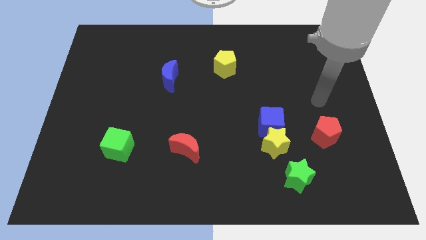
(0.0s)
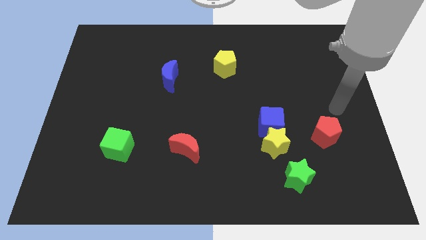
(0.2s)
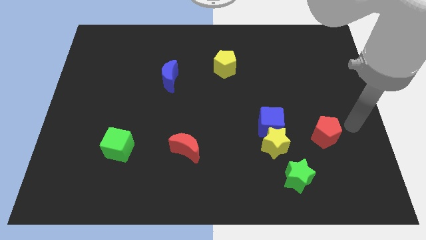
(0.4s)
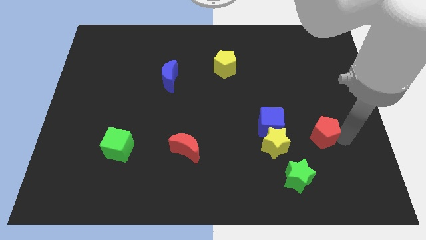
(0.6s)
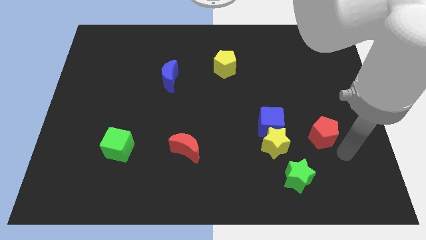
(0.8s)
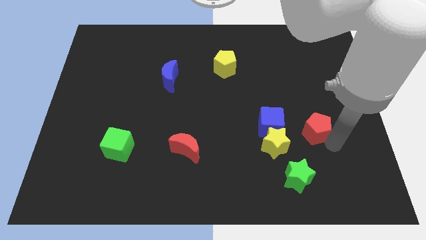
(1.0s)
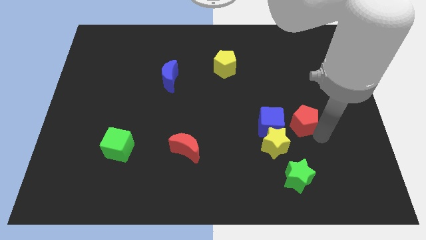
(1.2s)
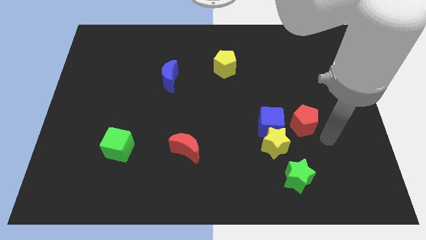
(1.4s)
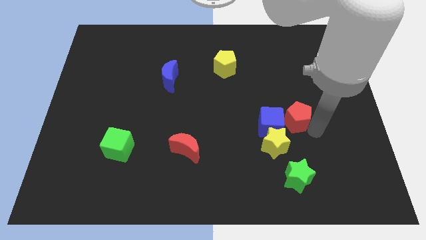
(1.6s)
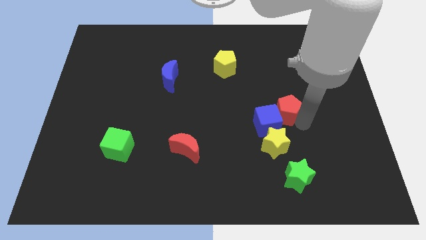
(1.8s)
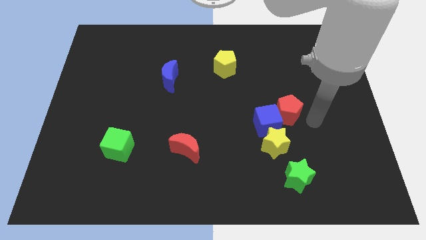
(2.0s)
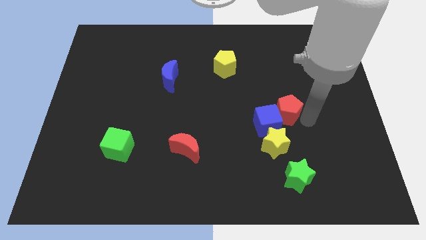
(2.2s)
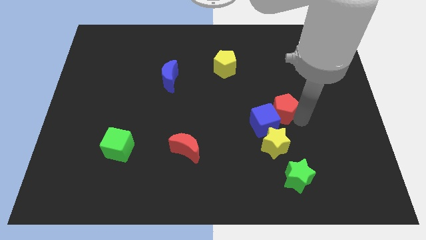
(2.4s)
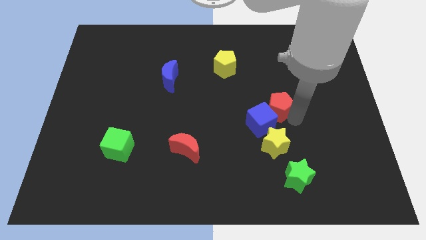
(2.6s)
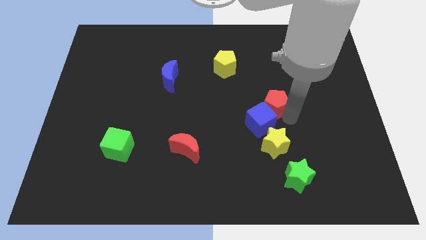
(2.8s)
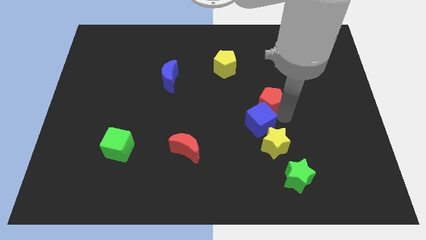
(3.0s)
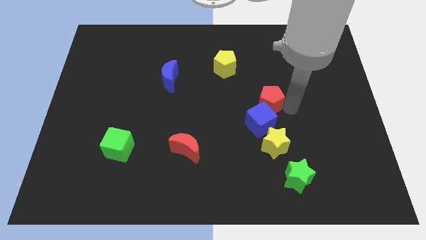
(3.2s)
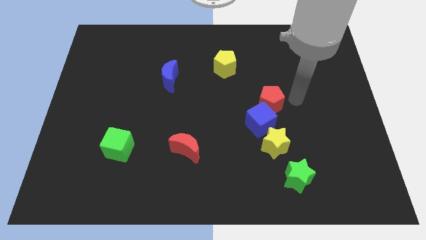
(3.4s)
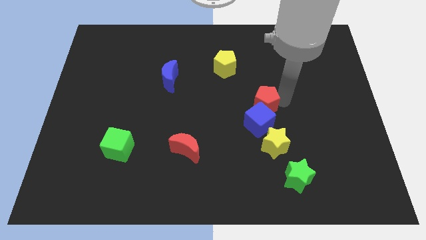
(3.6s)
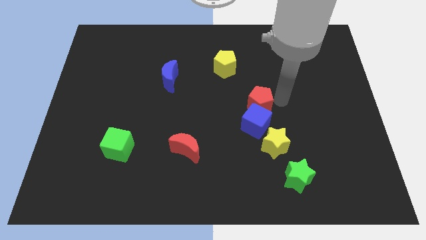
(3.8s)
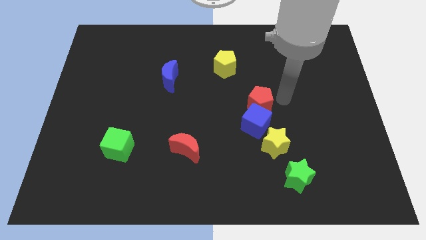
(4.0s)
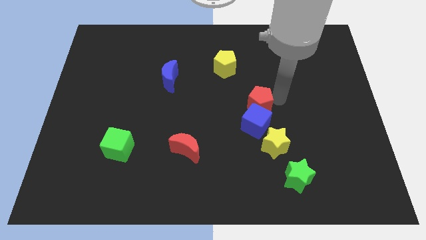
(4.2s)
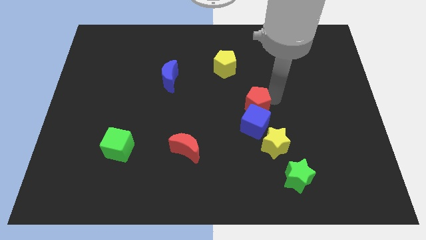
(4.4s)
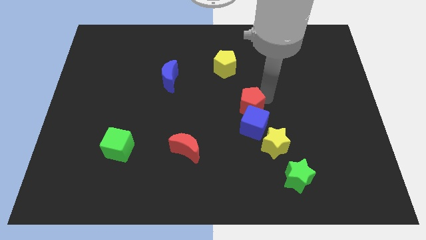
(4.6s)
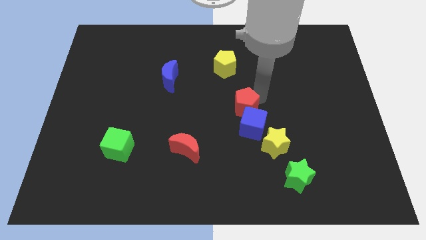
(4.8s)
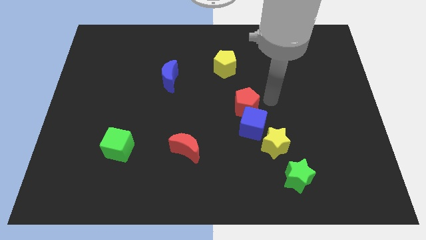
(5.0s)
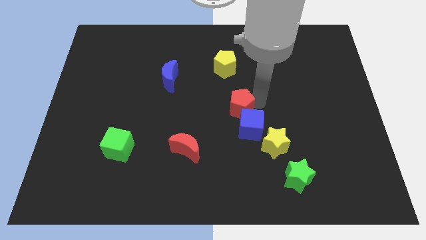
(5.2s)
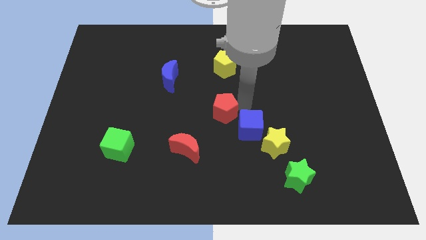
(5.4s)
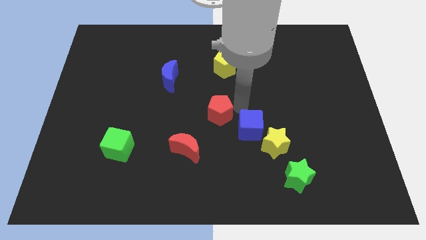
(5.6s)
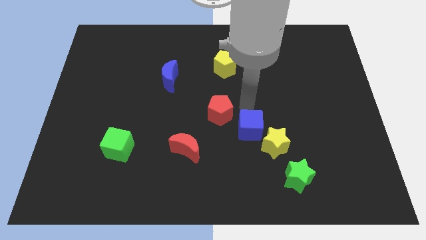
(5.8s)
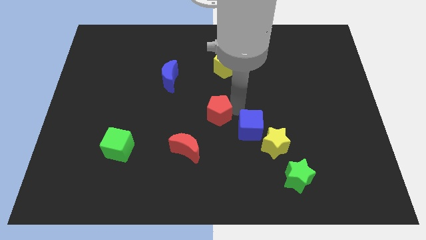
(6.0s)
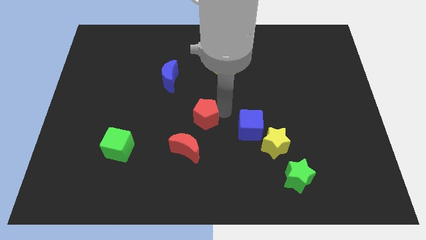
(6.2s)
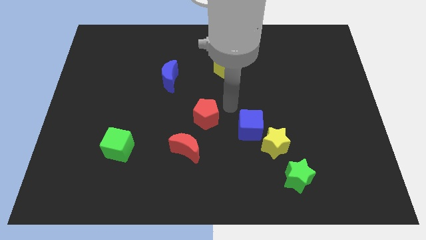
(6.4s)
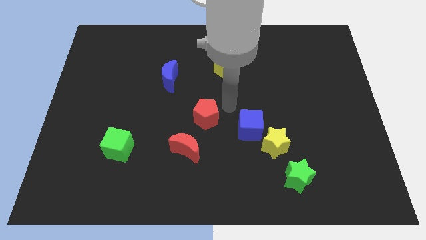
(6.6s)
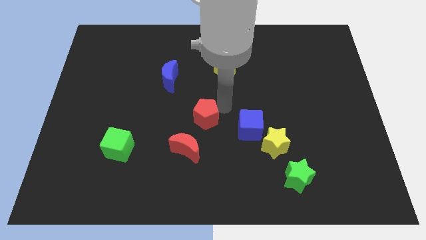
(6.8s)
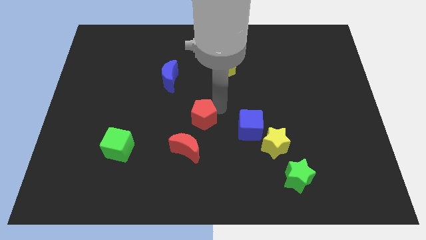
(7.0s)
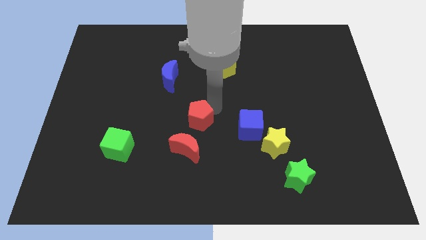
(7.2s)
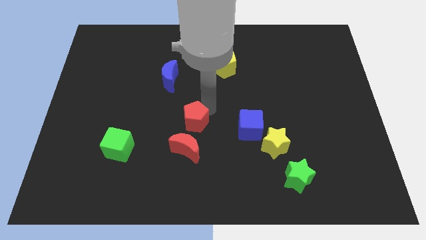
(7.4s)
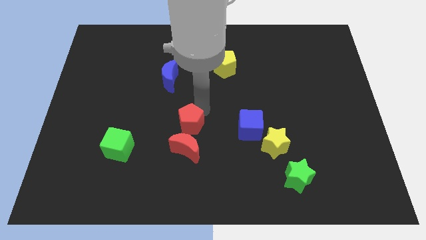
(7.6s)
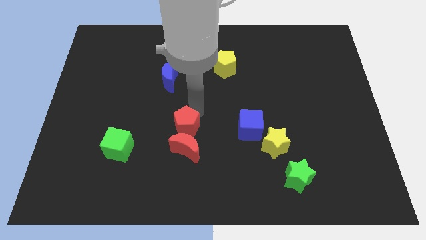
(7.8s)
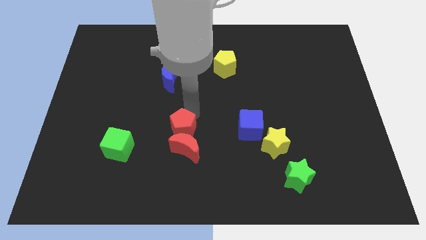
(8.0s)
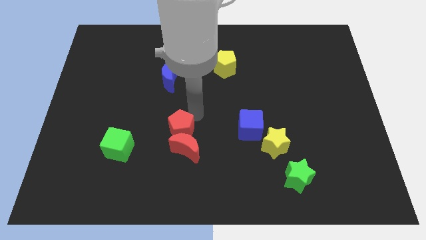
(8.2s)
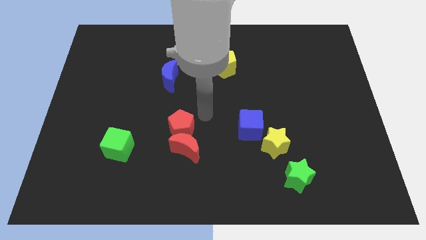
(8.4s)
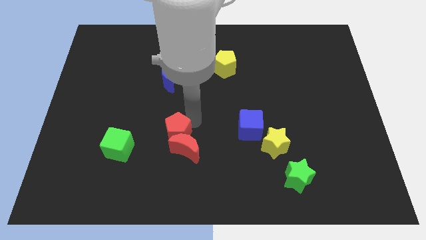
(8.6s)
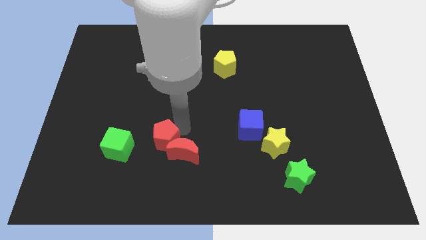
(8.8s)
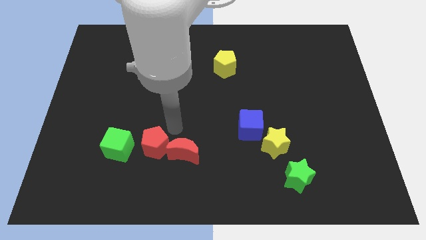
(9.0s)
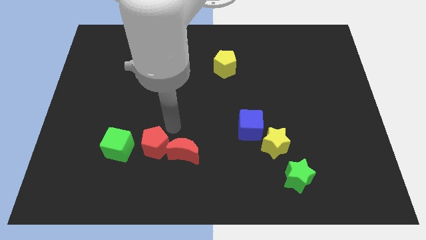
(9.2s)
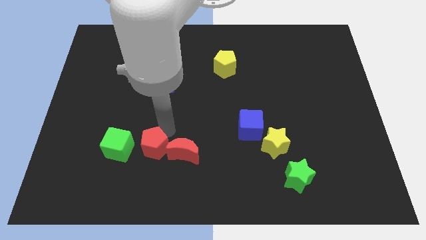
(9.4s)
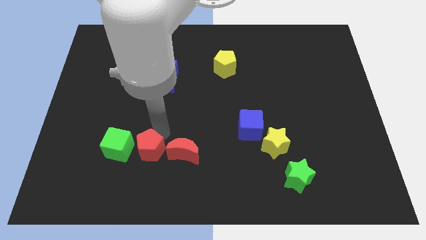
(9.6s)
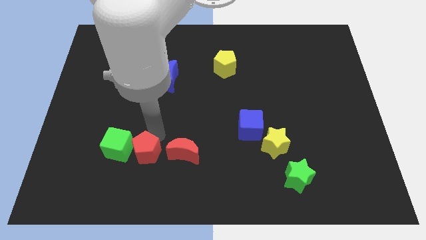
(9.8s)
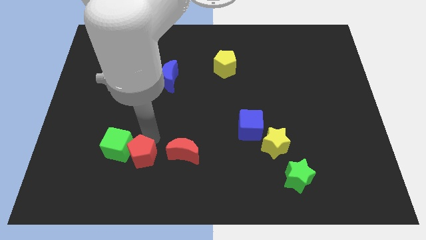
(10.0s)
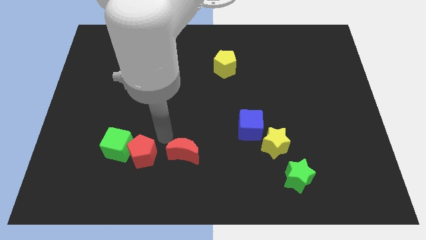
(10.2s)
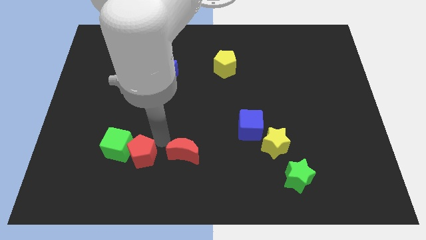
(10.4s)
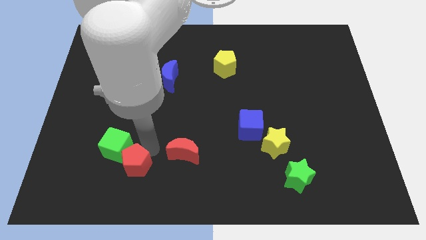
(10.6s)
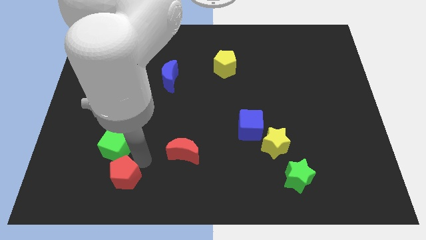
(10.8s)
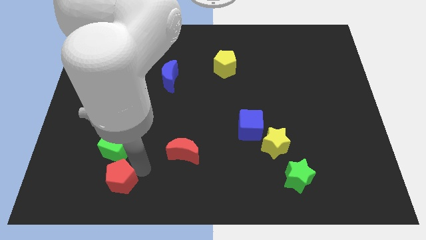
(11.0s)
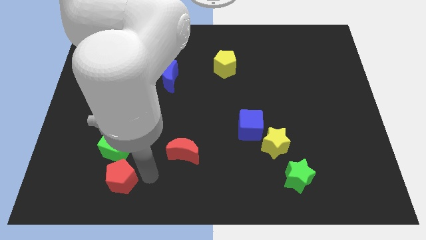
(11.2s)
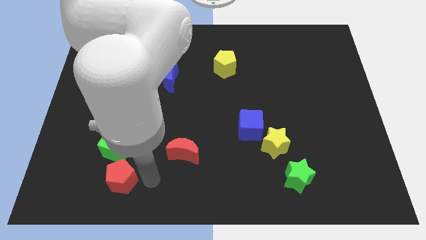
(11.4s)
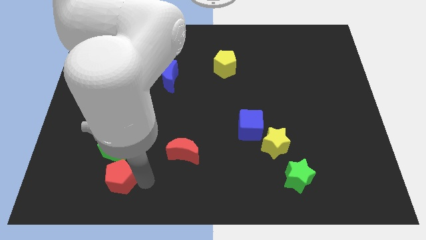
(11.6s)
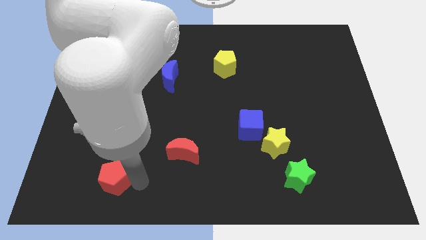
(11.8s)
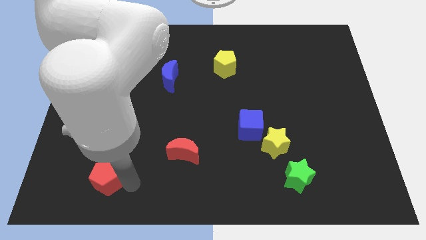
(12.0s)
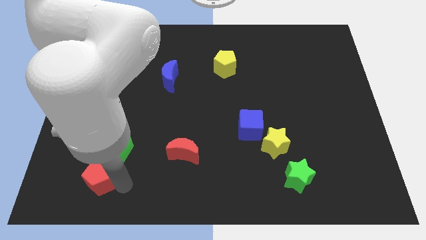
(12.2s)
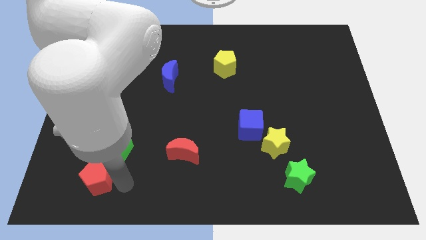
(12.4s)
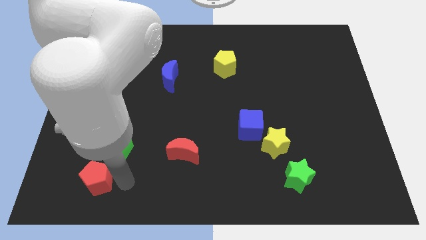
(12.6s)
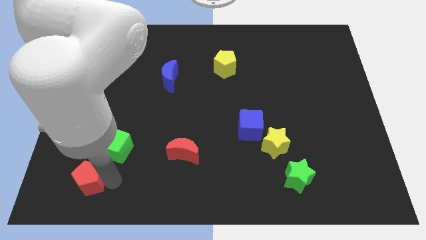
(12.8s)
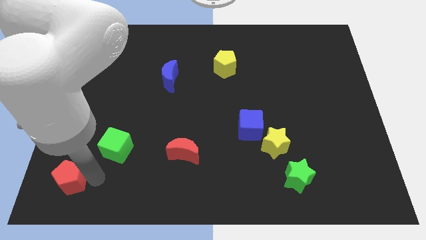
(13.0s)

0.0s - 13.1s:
slide the red pentagon to the bottom left corner
